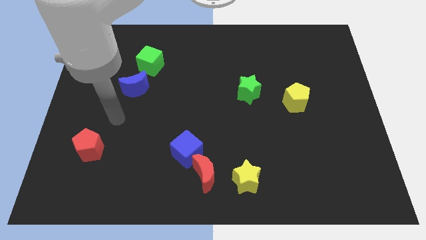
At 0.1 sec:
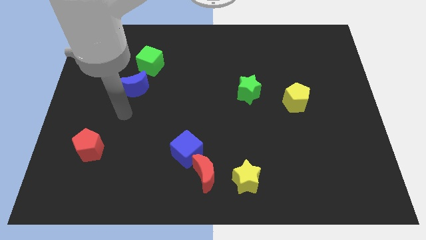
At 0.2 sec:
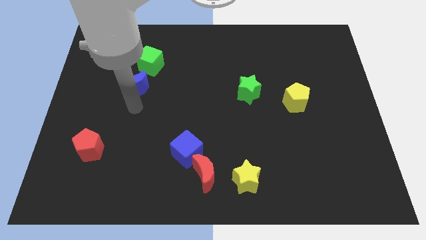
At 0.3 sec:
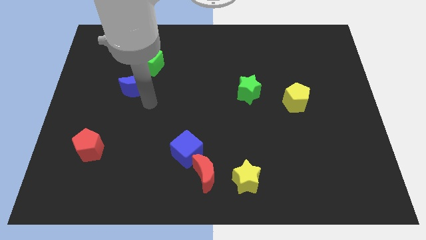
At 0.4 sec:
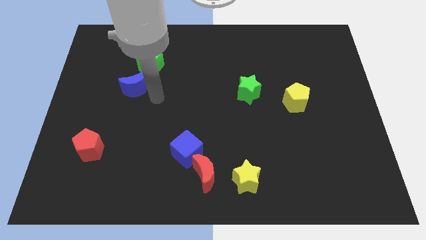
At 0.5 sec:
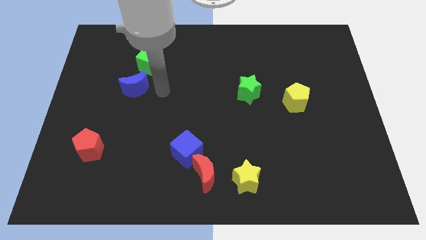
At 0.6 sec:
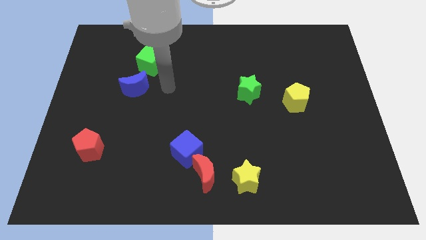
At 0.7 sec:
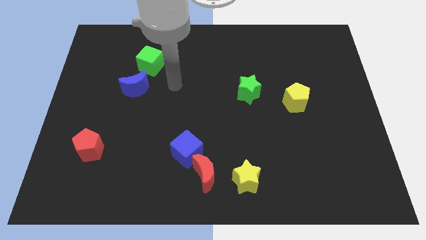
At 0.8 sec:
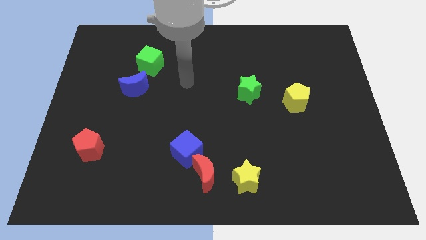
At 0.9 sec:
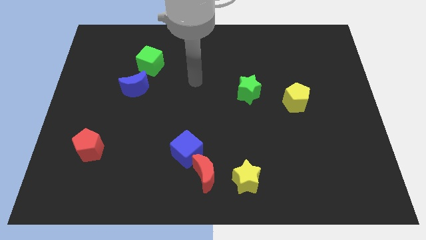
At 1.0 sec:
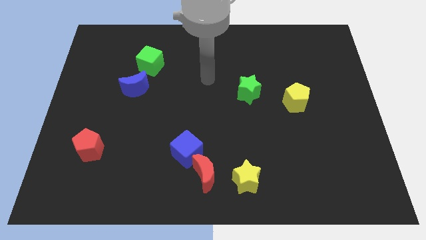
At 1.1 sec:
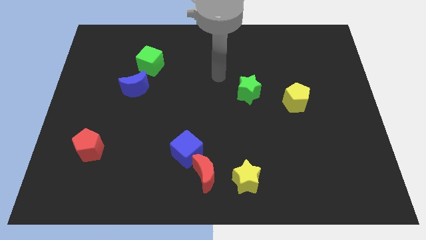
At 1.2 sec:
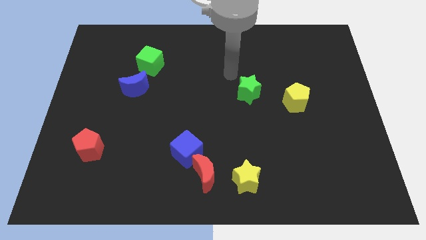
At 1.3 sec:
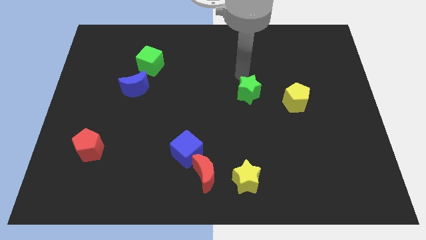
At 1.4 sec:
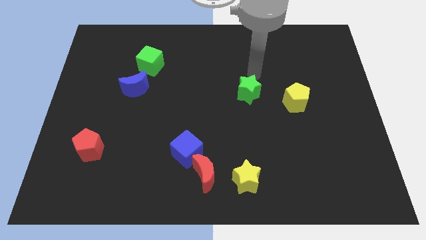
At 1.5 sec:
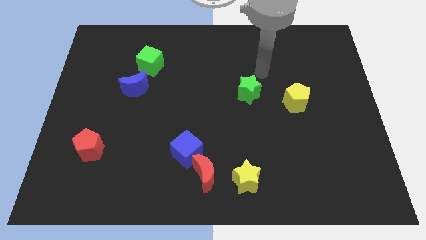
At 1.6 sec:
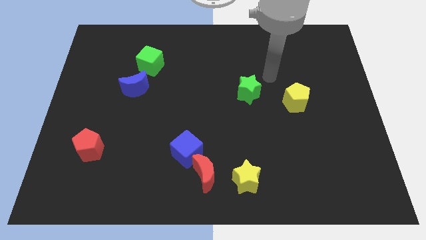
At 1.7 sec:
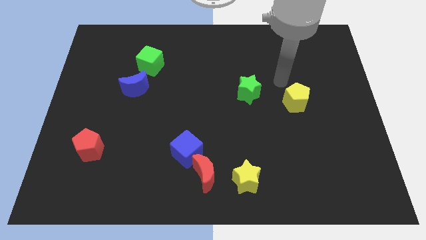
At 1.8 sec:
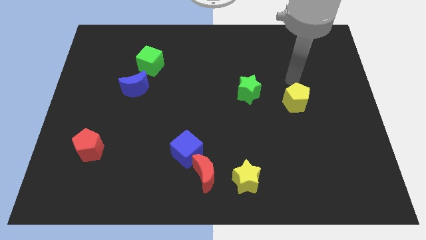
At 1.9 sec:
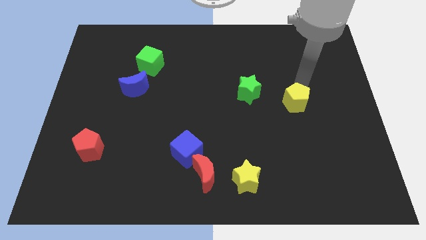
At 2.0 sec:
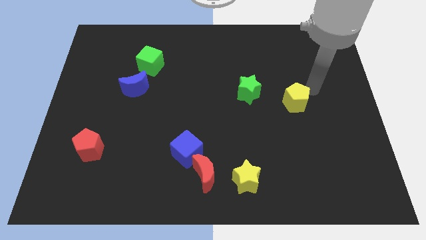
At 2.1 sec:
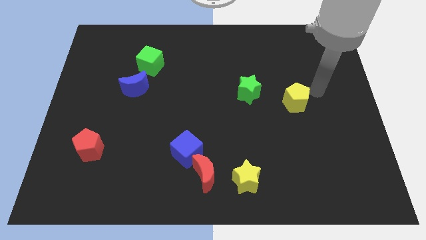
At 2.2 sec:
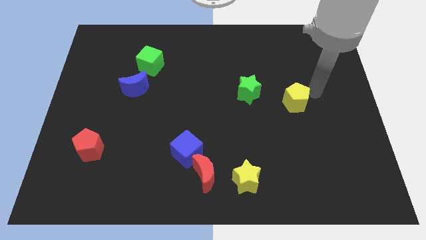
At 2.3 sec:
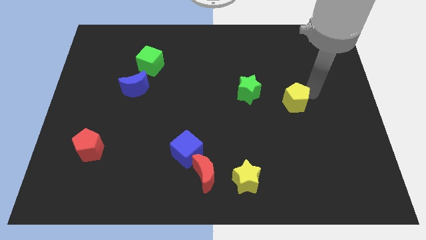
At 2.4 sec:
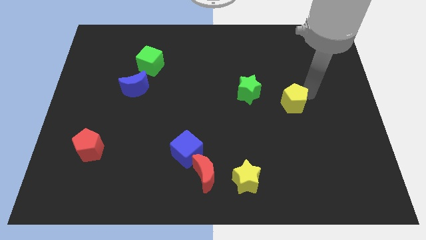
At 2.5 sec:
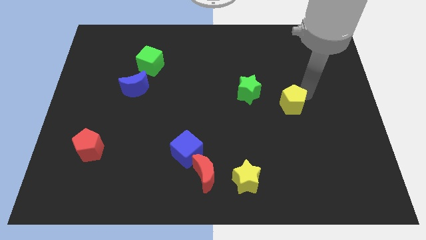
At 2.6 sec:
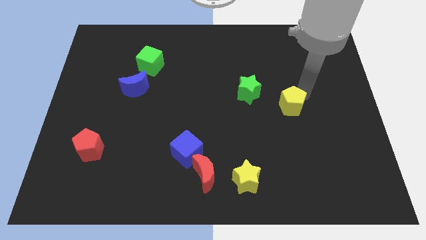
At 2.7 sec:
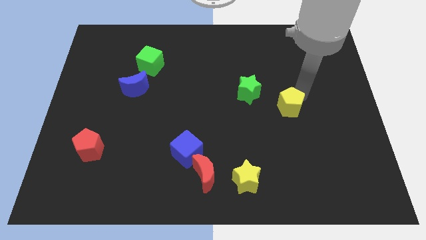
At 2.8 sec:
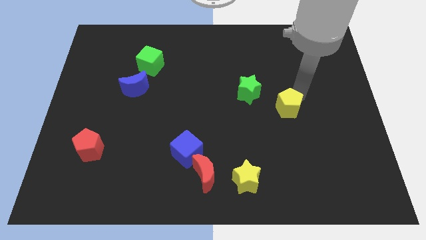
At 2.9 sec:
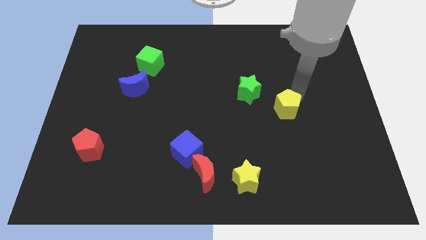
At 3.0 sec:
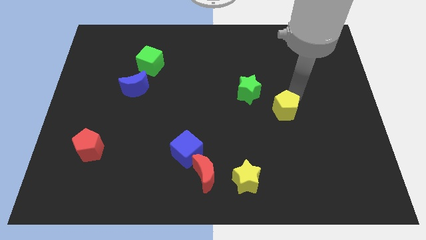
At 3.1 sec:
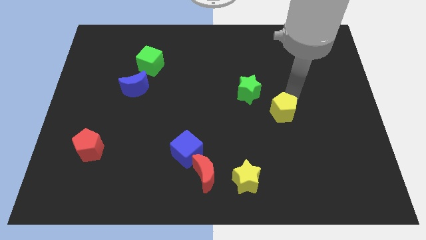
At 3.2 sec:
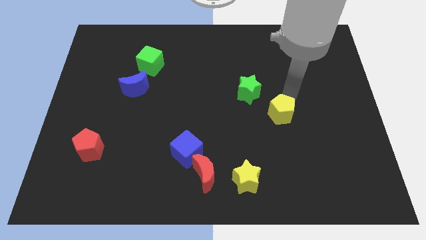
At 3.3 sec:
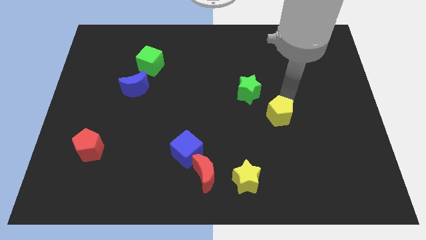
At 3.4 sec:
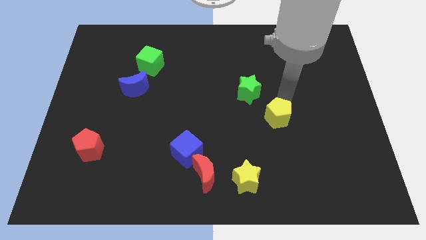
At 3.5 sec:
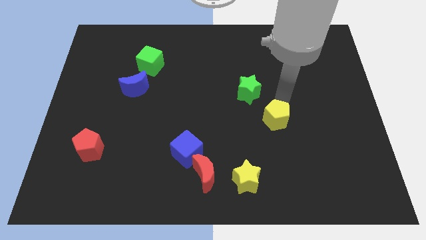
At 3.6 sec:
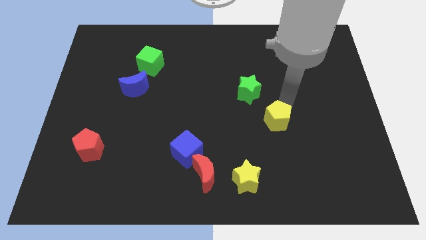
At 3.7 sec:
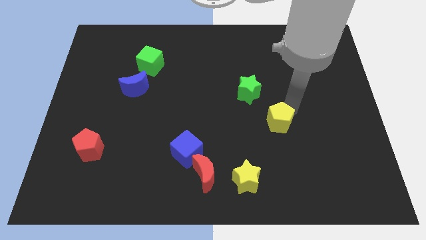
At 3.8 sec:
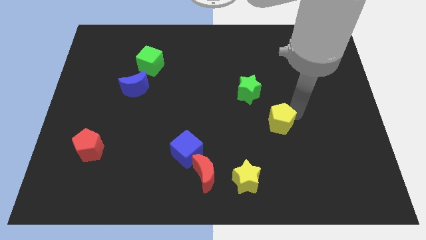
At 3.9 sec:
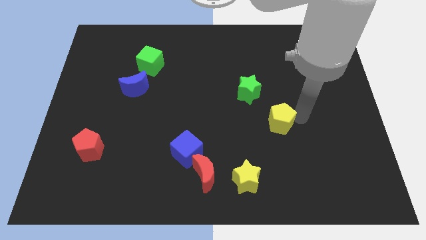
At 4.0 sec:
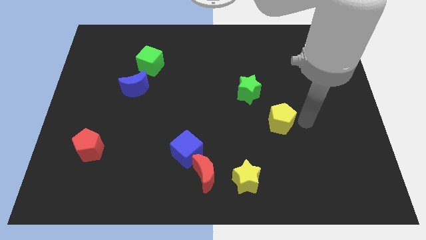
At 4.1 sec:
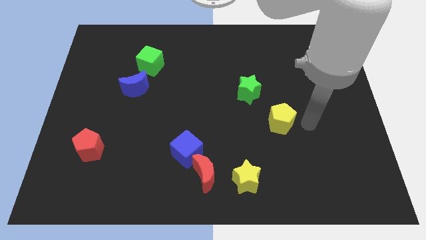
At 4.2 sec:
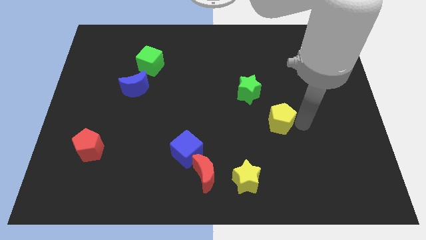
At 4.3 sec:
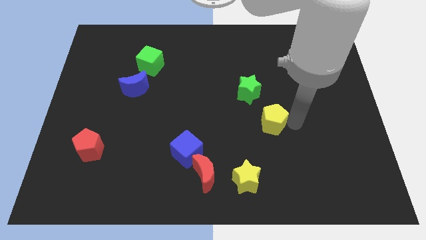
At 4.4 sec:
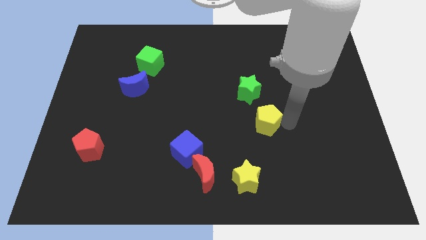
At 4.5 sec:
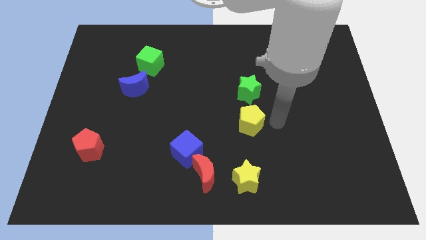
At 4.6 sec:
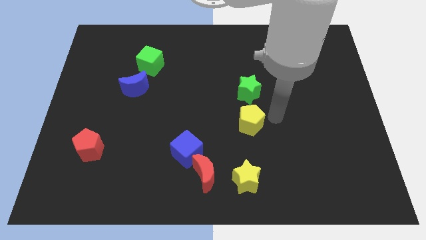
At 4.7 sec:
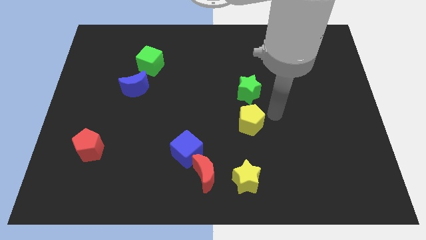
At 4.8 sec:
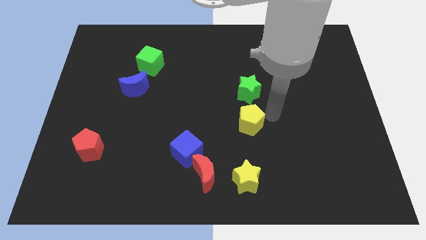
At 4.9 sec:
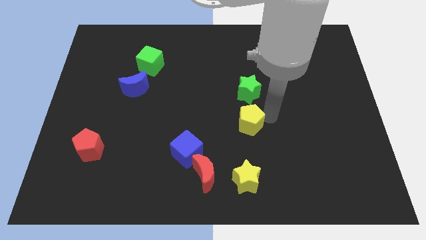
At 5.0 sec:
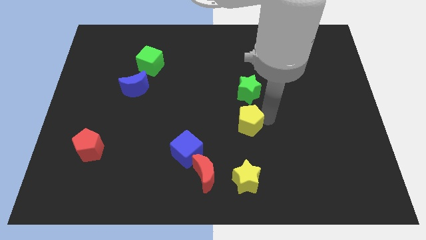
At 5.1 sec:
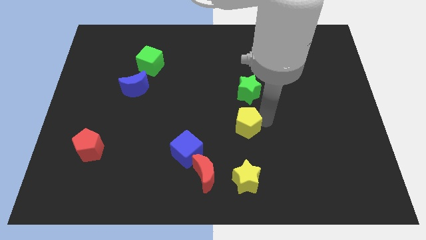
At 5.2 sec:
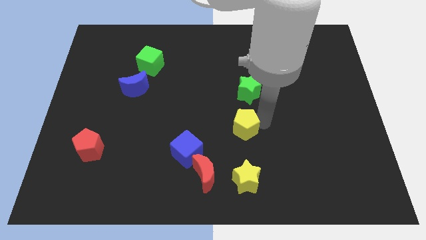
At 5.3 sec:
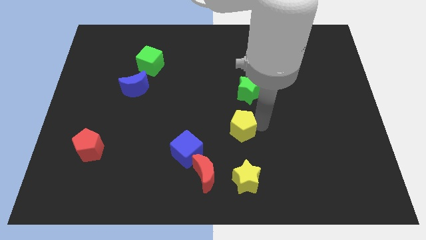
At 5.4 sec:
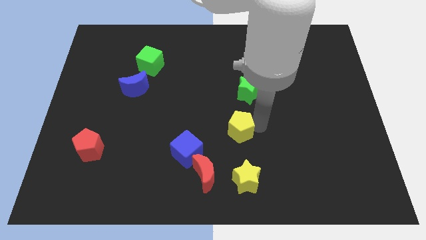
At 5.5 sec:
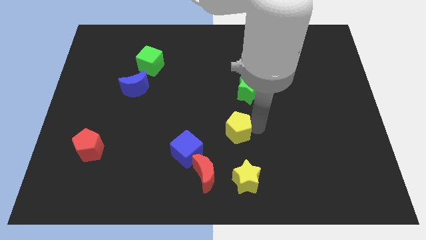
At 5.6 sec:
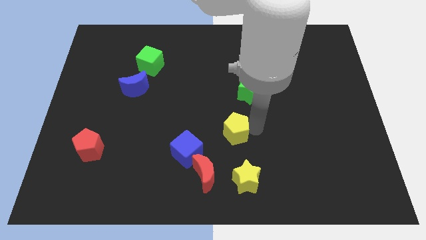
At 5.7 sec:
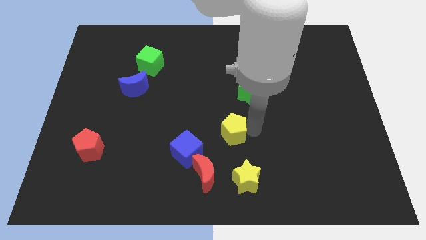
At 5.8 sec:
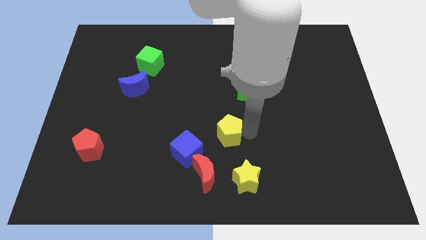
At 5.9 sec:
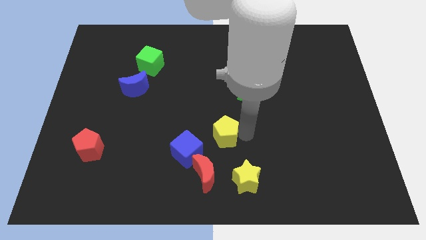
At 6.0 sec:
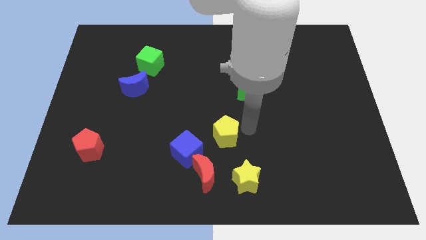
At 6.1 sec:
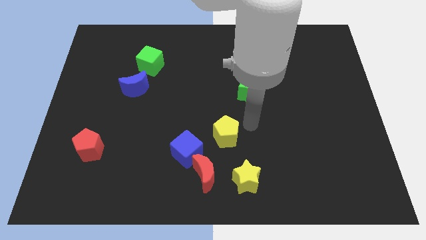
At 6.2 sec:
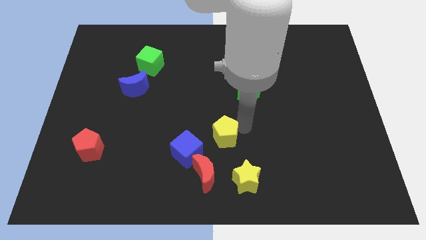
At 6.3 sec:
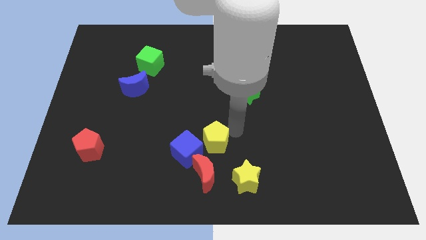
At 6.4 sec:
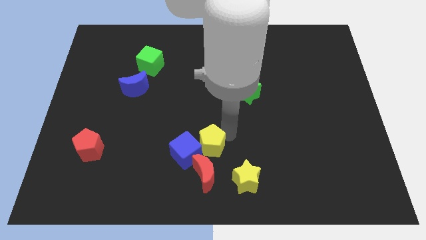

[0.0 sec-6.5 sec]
slide the yellow pentagon to the blue cube
